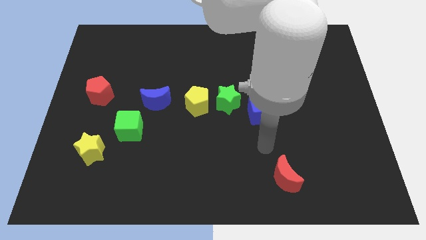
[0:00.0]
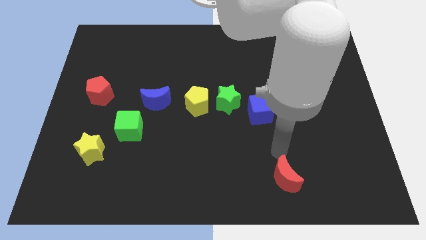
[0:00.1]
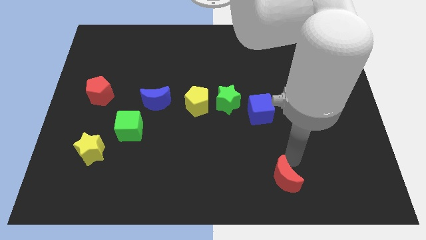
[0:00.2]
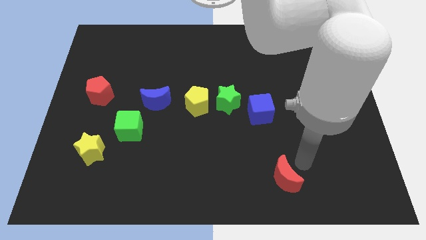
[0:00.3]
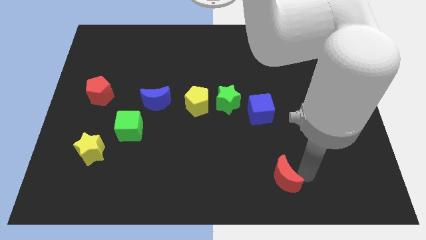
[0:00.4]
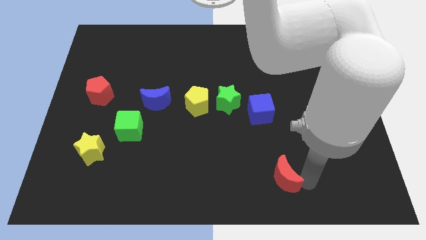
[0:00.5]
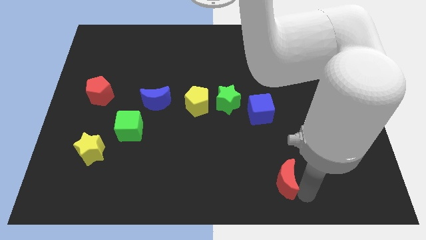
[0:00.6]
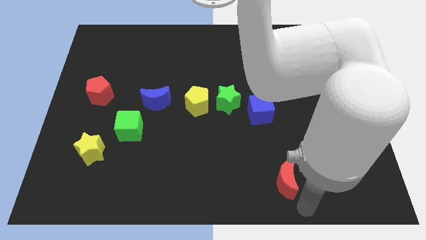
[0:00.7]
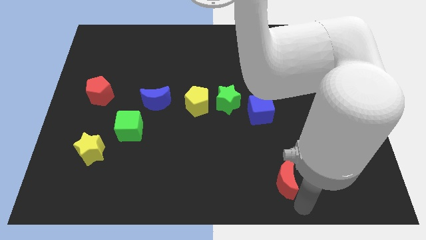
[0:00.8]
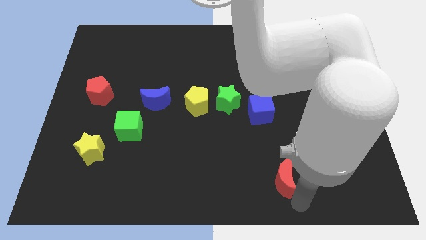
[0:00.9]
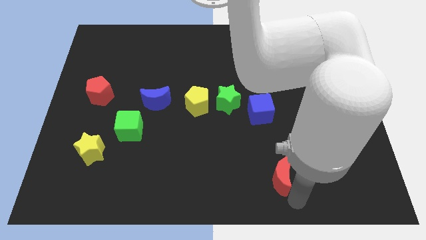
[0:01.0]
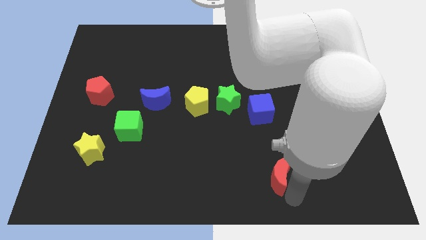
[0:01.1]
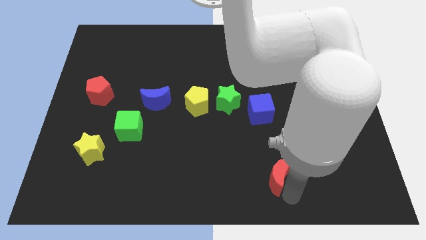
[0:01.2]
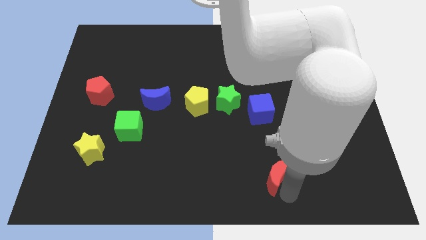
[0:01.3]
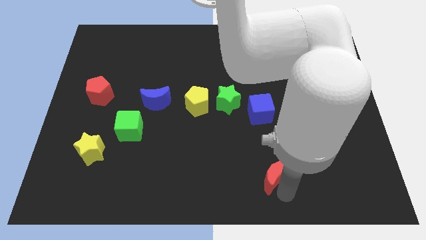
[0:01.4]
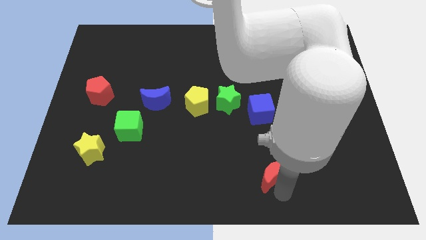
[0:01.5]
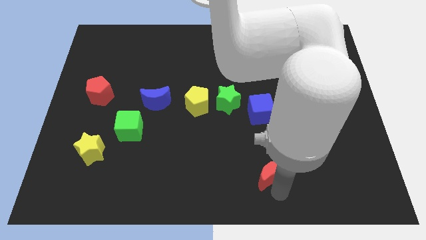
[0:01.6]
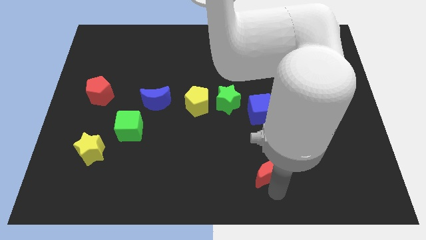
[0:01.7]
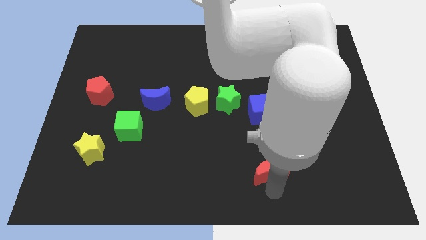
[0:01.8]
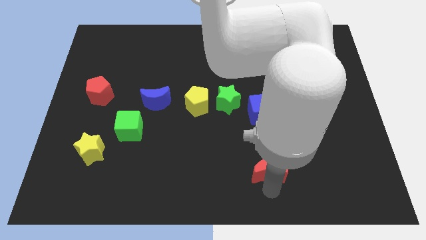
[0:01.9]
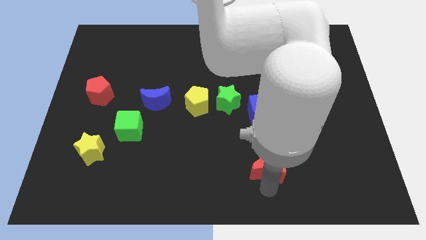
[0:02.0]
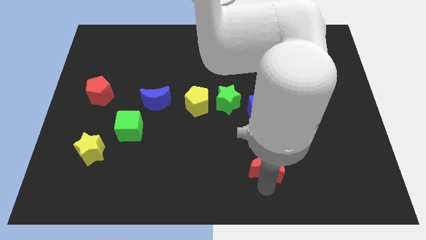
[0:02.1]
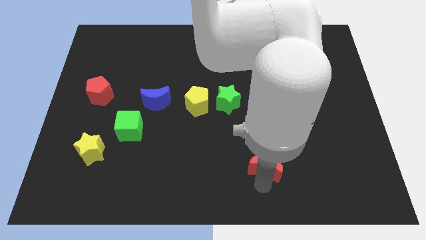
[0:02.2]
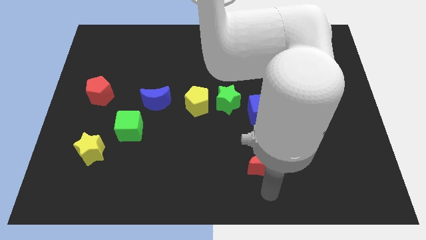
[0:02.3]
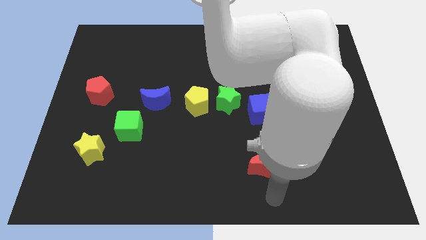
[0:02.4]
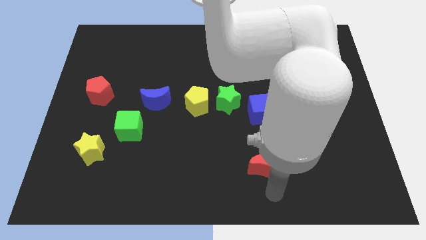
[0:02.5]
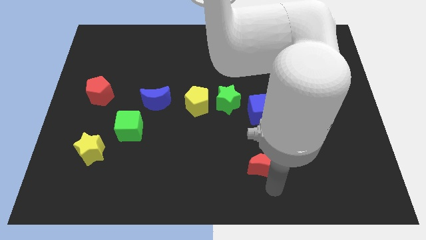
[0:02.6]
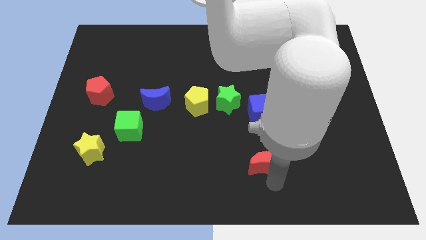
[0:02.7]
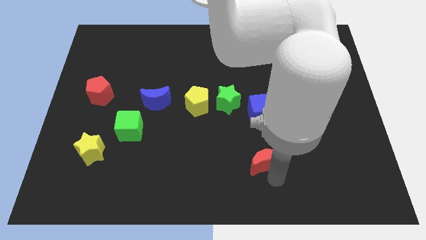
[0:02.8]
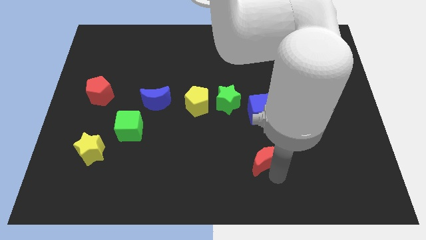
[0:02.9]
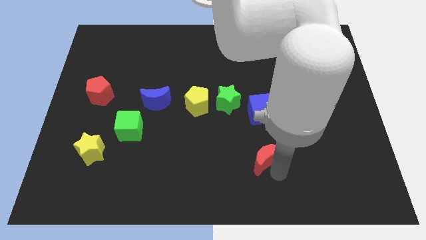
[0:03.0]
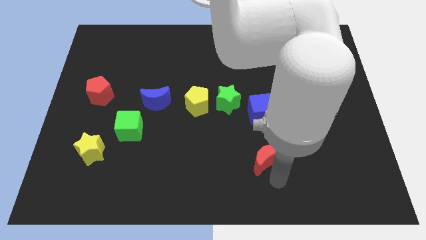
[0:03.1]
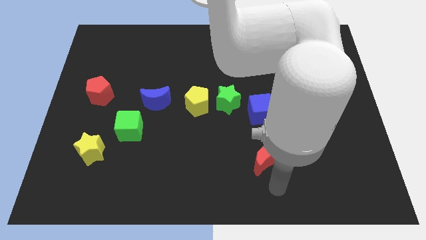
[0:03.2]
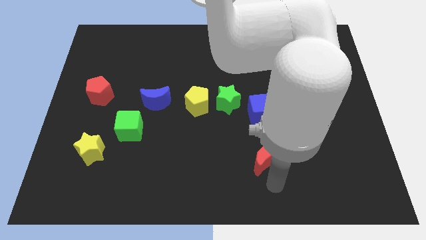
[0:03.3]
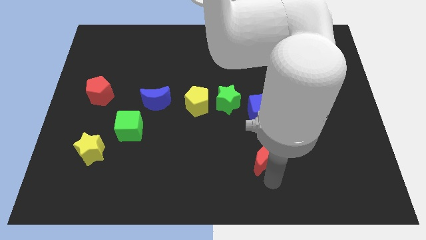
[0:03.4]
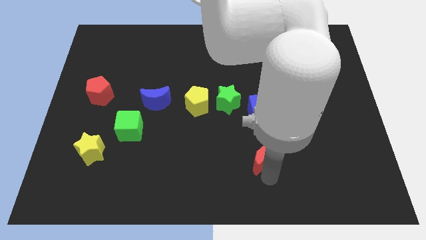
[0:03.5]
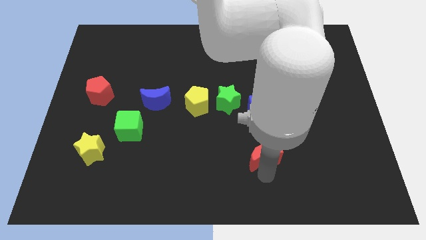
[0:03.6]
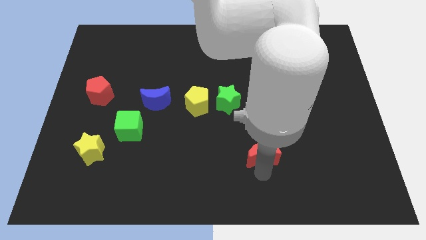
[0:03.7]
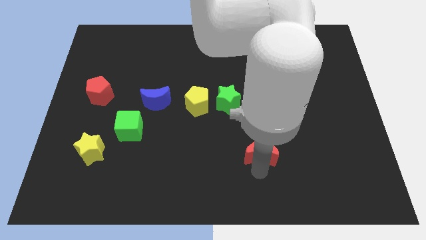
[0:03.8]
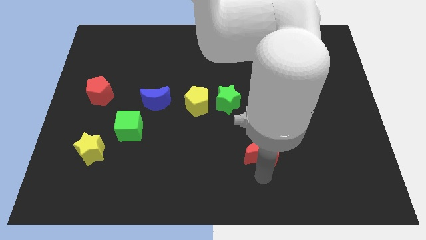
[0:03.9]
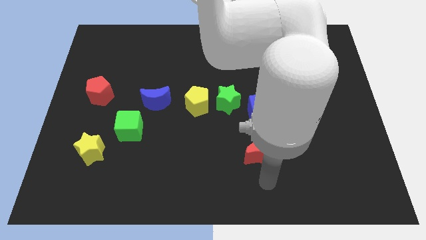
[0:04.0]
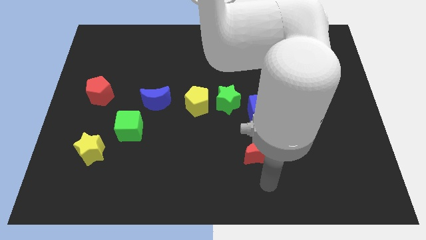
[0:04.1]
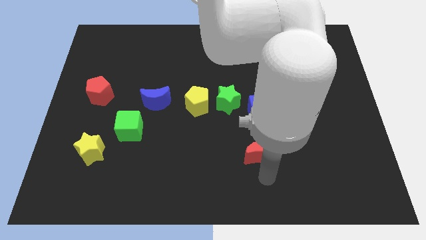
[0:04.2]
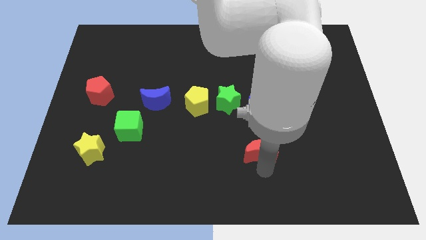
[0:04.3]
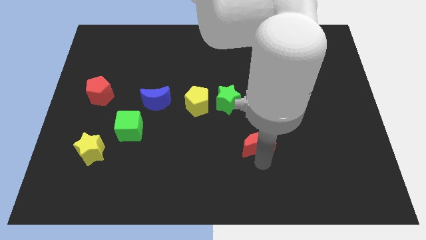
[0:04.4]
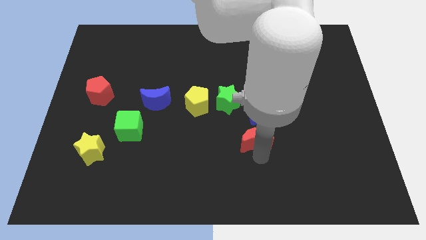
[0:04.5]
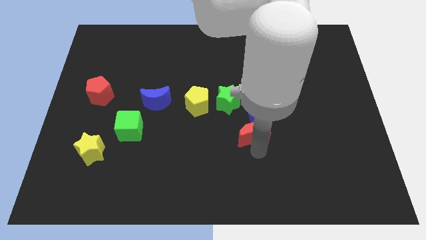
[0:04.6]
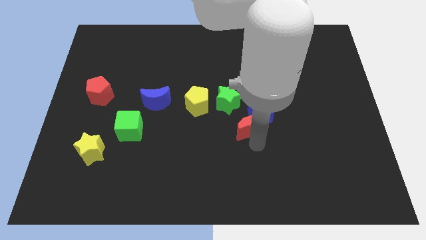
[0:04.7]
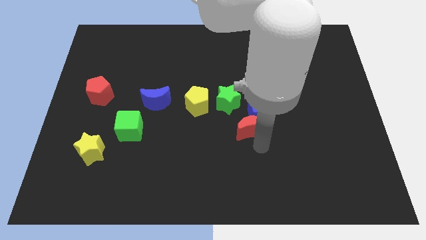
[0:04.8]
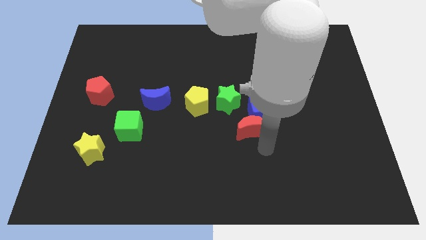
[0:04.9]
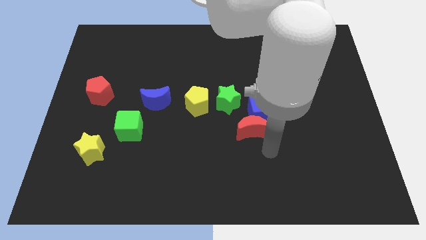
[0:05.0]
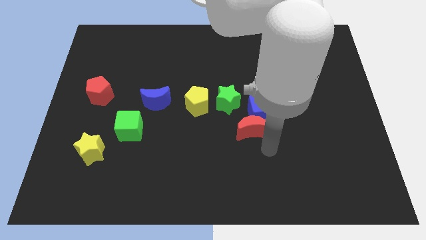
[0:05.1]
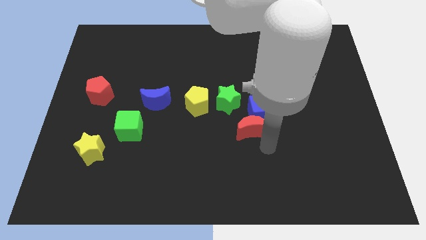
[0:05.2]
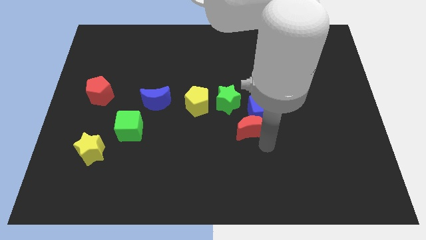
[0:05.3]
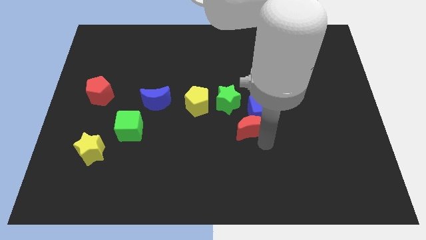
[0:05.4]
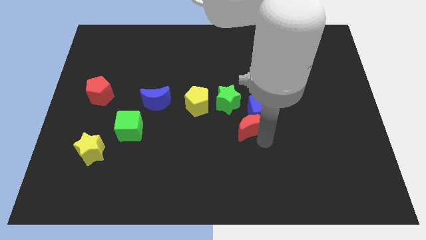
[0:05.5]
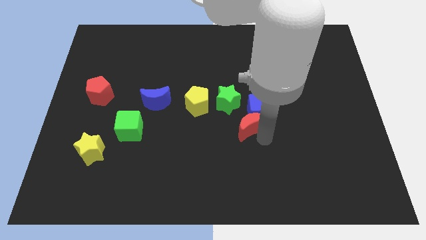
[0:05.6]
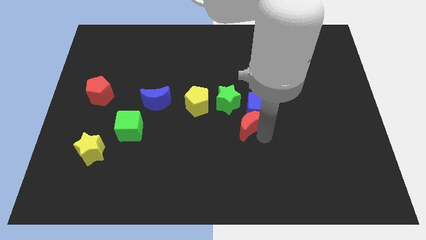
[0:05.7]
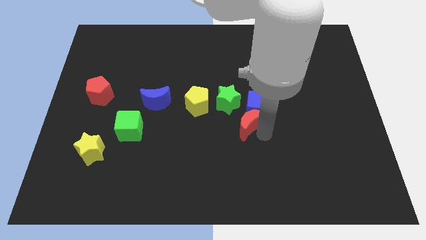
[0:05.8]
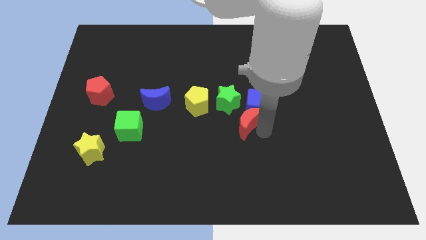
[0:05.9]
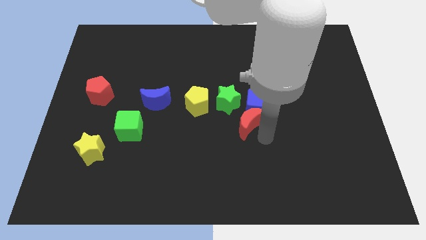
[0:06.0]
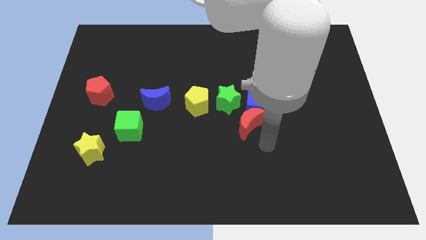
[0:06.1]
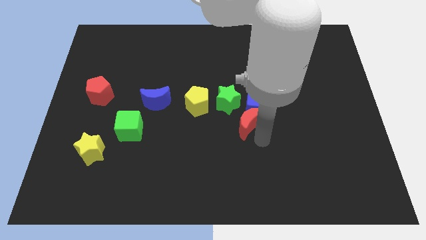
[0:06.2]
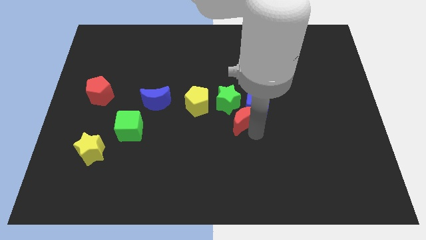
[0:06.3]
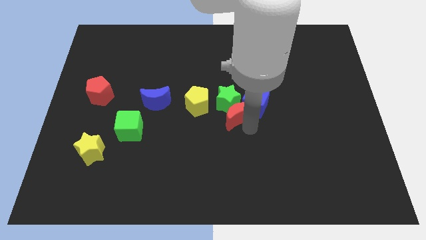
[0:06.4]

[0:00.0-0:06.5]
move the red moon next to the green star

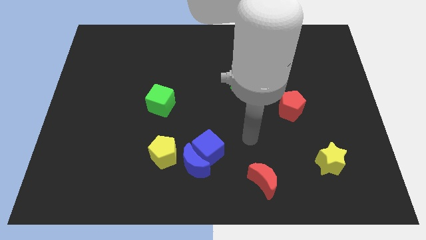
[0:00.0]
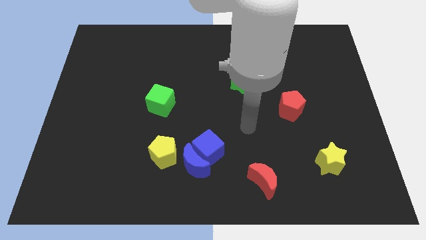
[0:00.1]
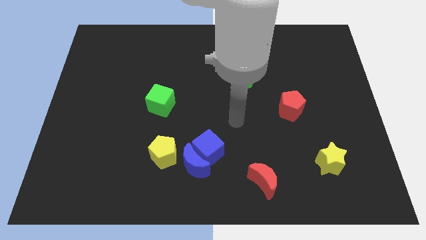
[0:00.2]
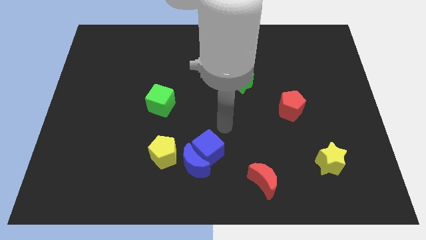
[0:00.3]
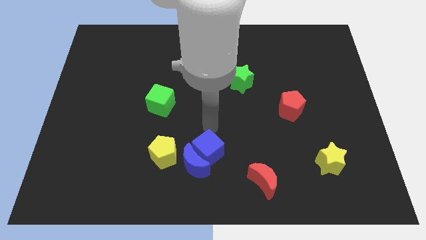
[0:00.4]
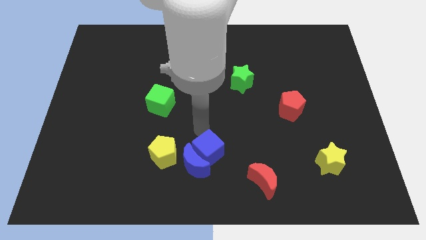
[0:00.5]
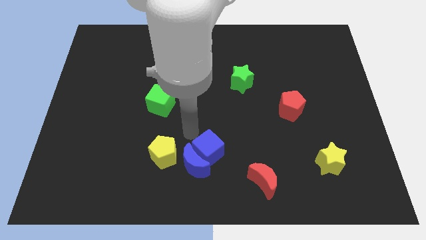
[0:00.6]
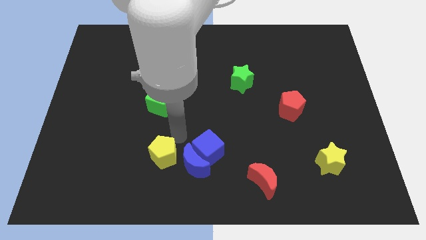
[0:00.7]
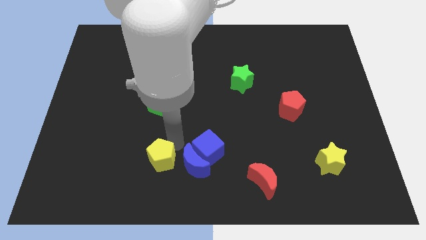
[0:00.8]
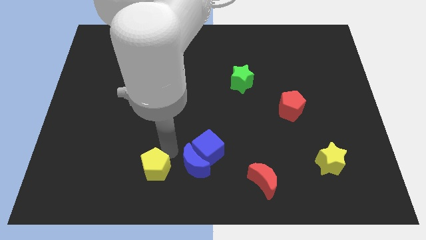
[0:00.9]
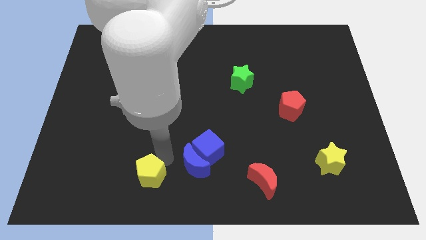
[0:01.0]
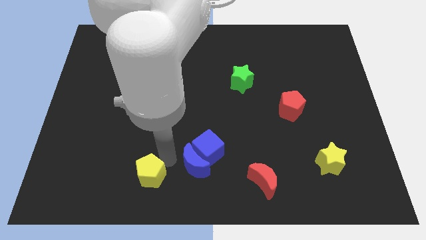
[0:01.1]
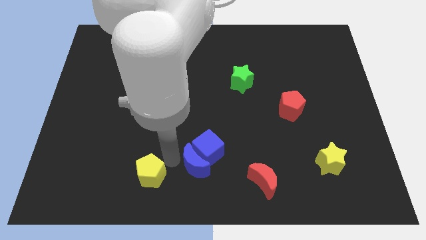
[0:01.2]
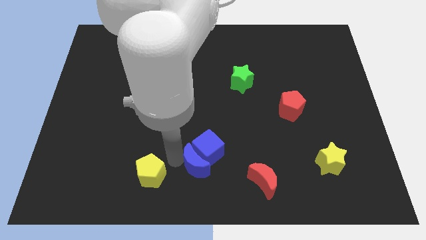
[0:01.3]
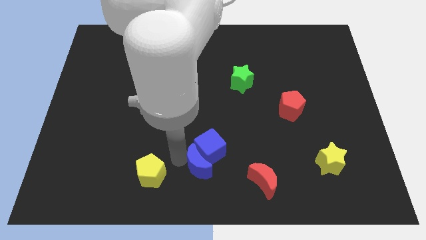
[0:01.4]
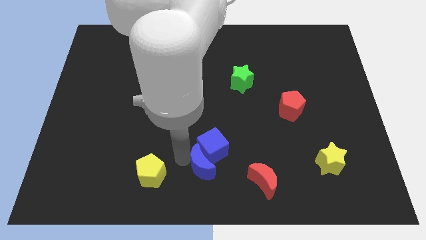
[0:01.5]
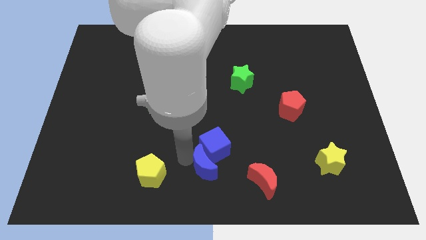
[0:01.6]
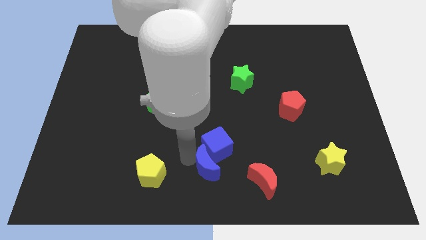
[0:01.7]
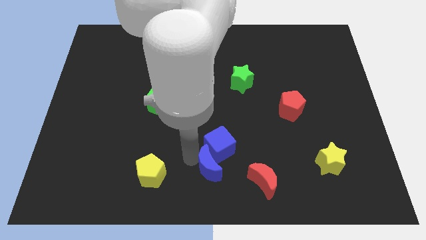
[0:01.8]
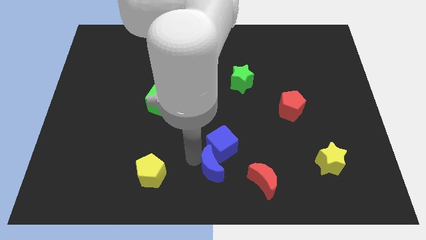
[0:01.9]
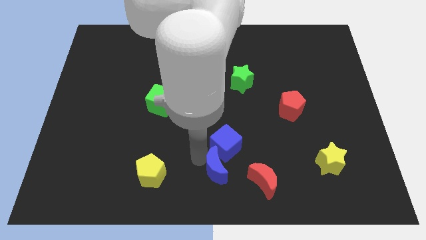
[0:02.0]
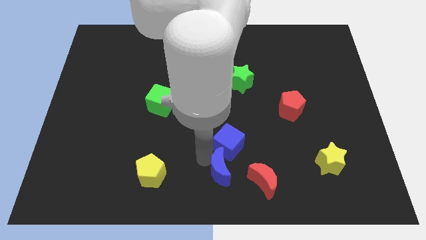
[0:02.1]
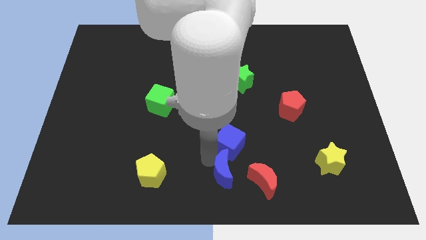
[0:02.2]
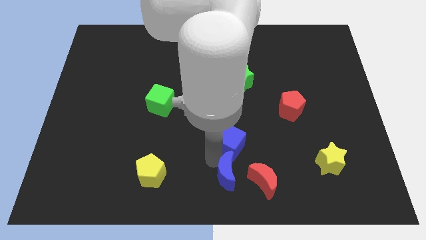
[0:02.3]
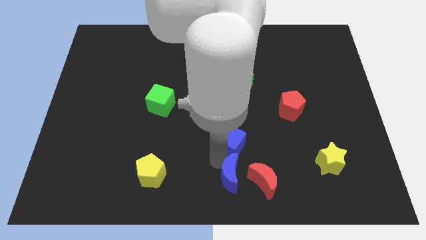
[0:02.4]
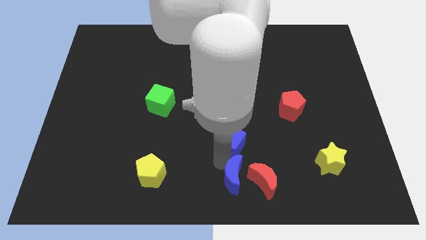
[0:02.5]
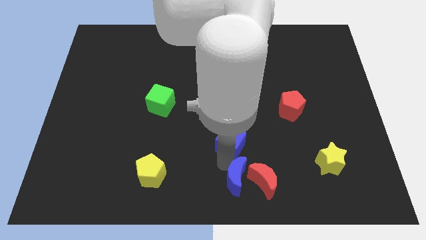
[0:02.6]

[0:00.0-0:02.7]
move the blue moon next to the red moon
